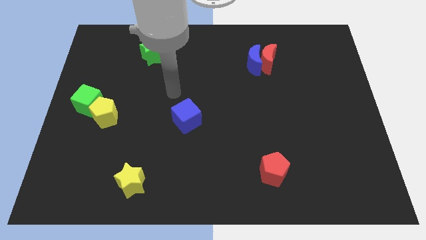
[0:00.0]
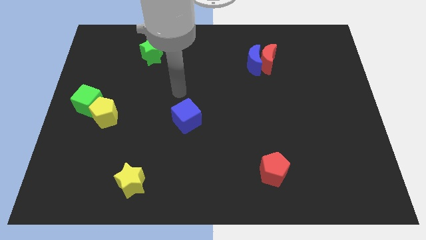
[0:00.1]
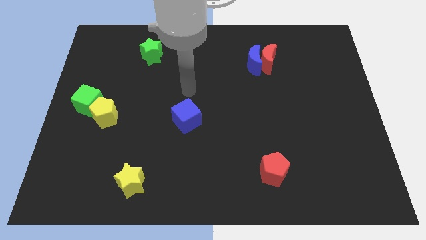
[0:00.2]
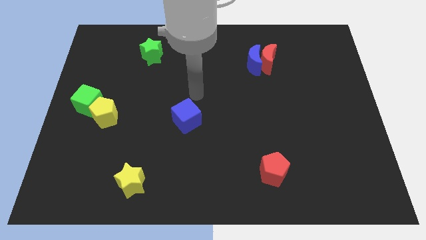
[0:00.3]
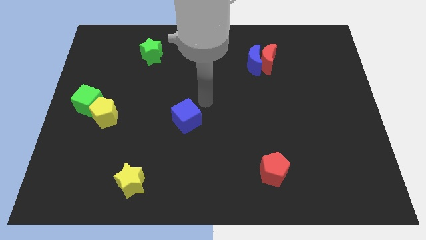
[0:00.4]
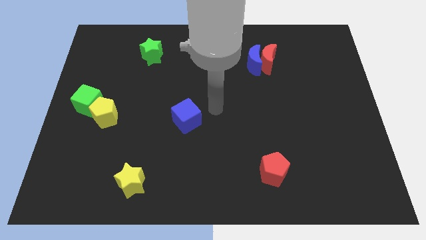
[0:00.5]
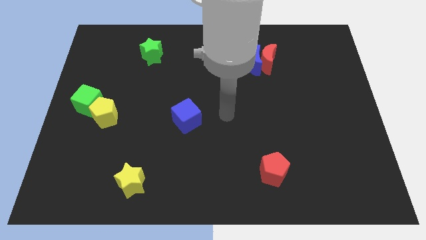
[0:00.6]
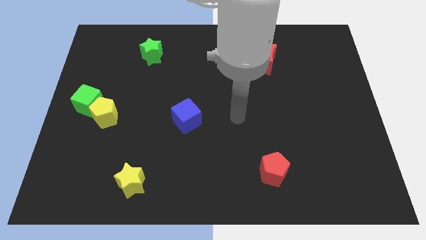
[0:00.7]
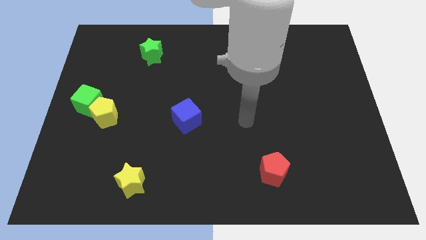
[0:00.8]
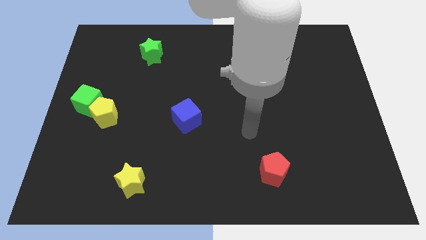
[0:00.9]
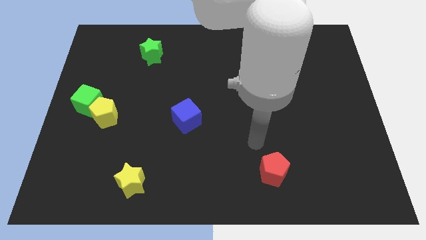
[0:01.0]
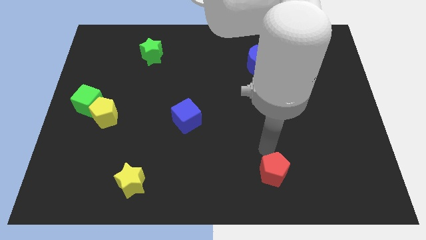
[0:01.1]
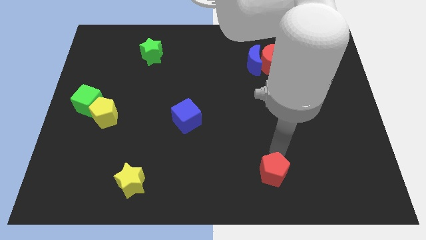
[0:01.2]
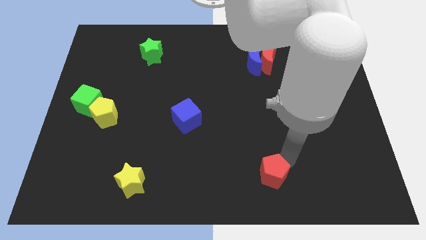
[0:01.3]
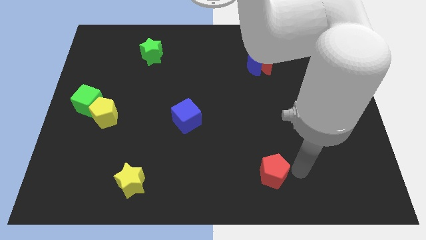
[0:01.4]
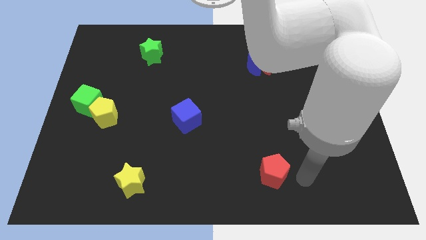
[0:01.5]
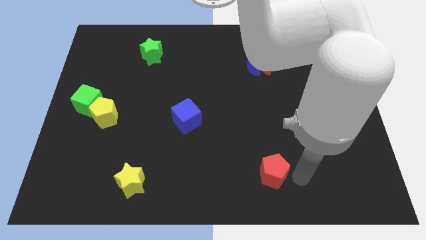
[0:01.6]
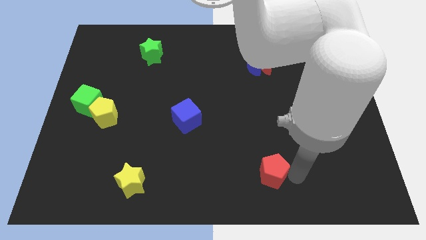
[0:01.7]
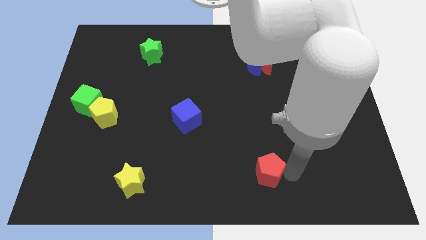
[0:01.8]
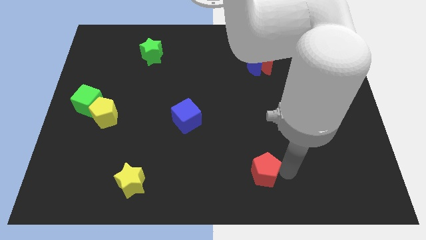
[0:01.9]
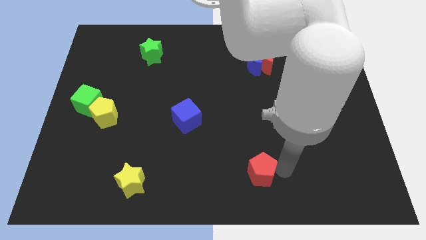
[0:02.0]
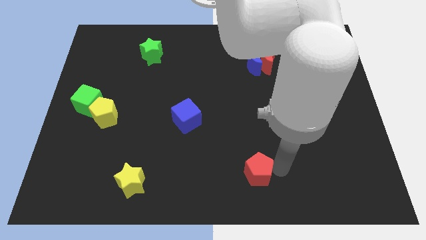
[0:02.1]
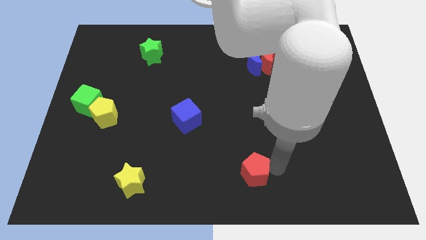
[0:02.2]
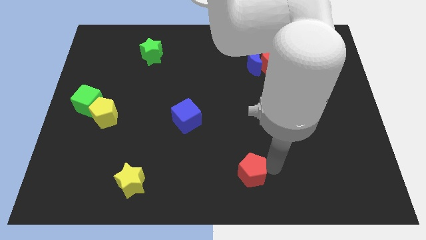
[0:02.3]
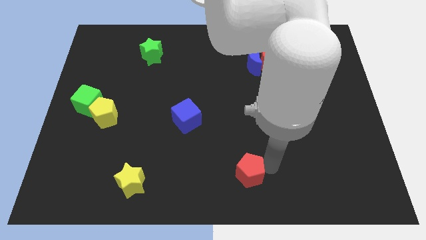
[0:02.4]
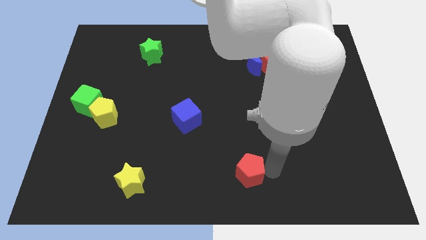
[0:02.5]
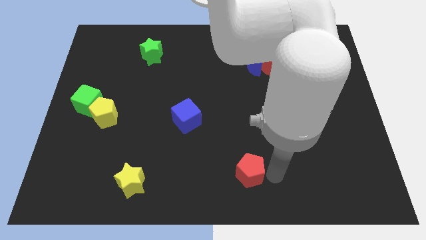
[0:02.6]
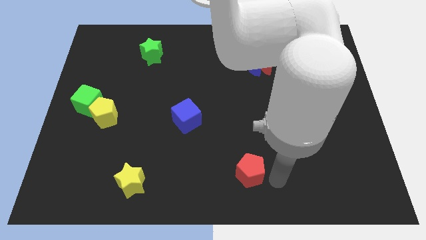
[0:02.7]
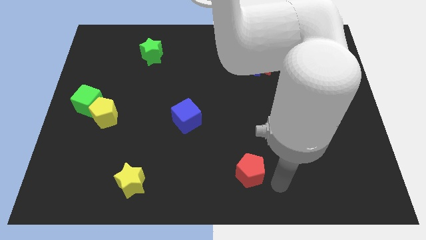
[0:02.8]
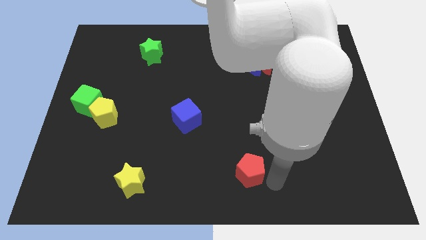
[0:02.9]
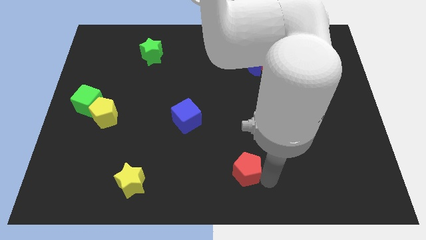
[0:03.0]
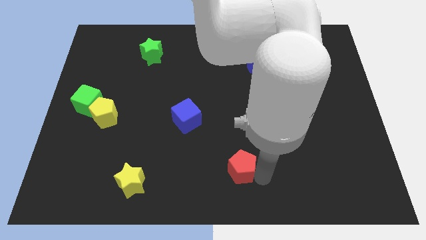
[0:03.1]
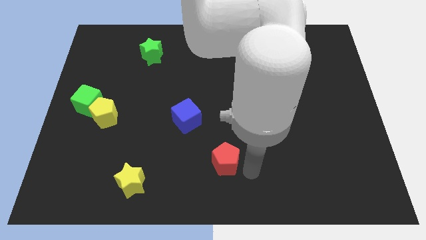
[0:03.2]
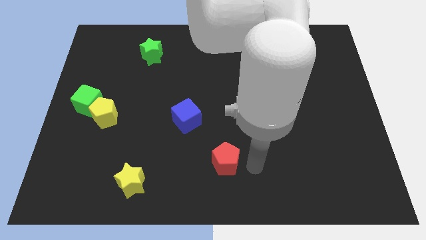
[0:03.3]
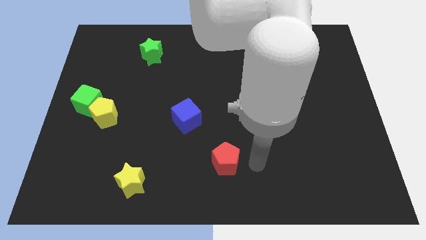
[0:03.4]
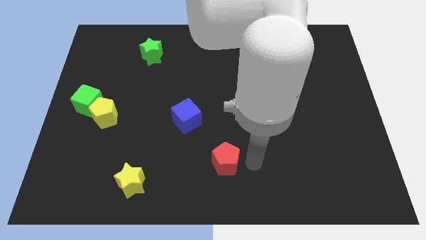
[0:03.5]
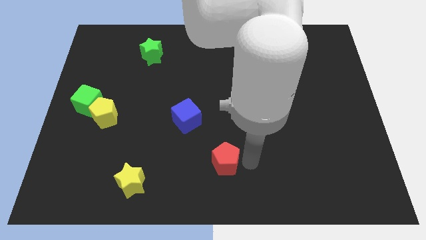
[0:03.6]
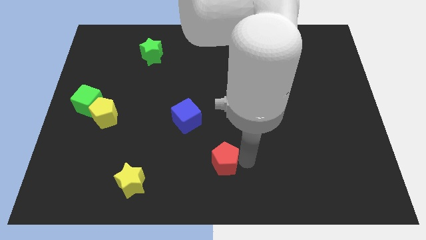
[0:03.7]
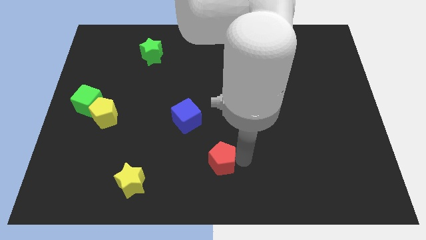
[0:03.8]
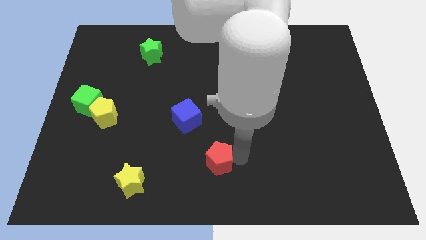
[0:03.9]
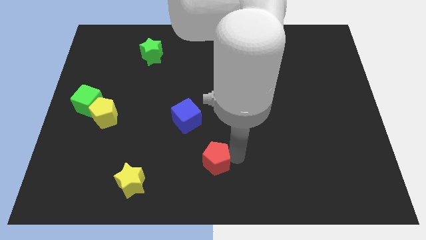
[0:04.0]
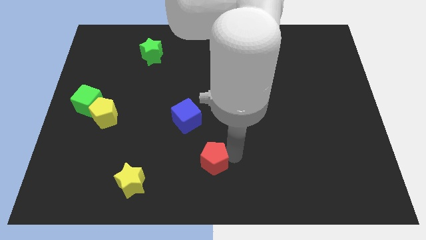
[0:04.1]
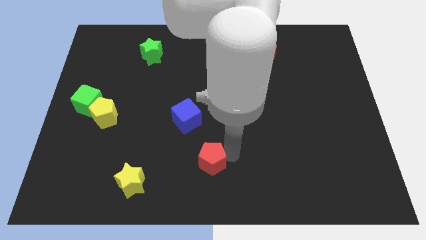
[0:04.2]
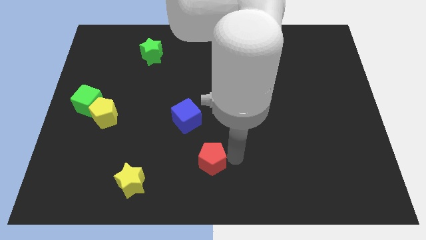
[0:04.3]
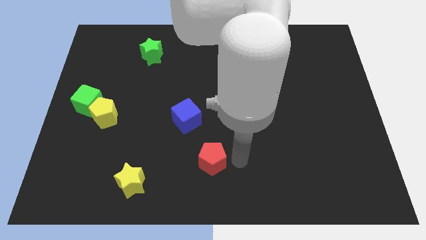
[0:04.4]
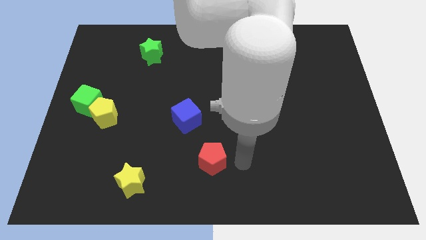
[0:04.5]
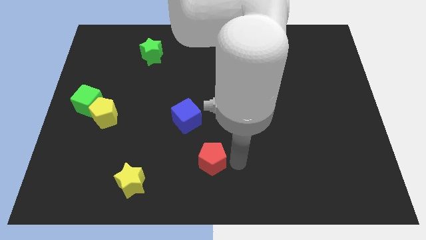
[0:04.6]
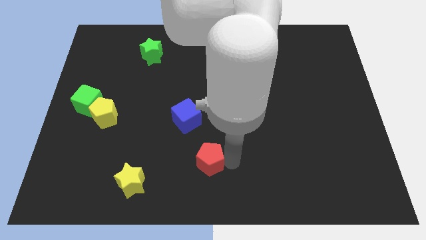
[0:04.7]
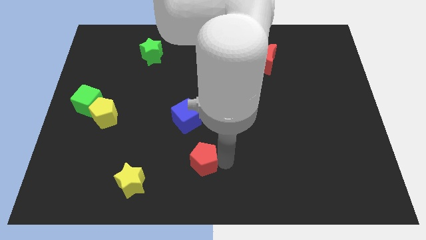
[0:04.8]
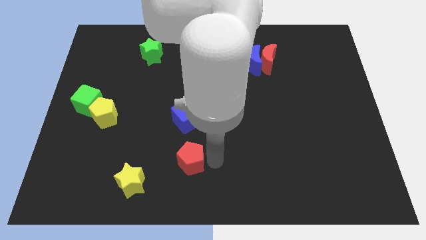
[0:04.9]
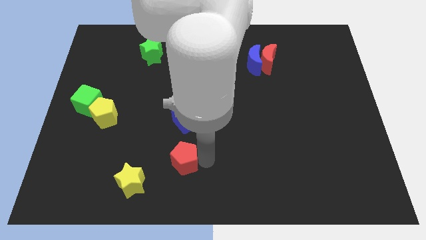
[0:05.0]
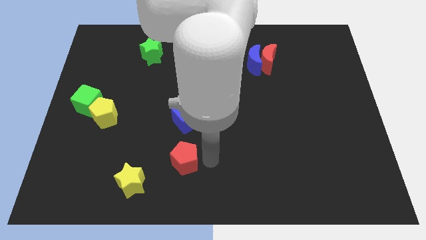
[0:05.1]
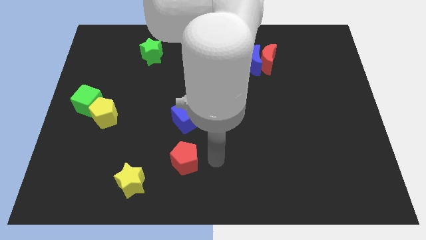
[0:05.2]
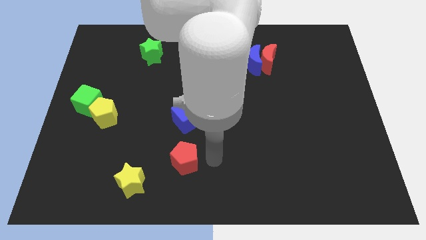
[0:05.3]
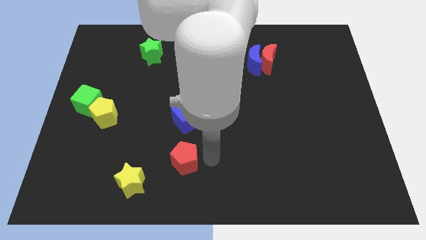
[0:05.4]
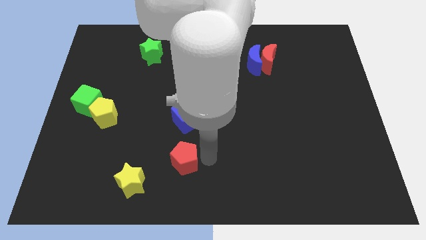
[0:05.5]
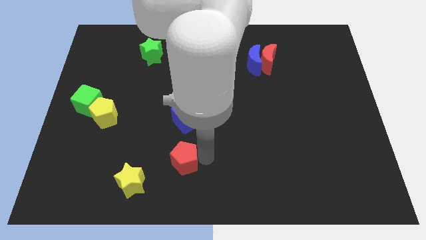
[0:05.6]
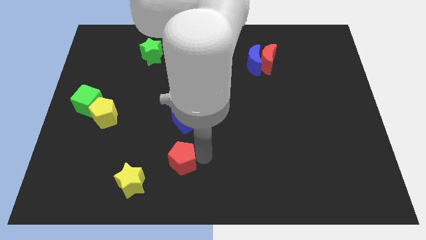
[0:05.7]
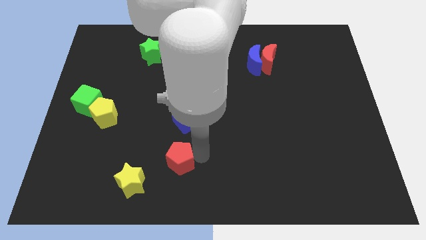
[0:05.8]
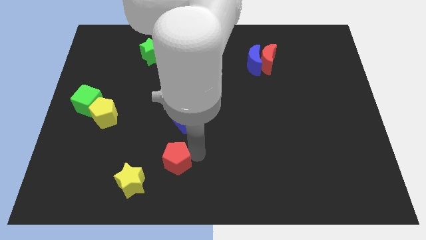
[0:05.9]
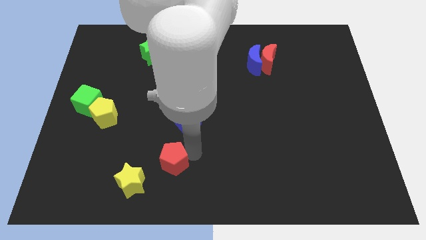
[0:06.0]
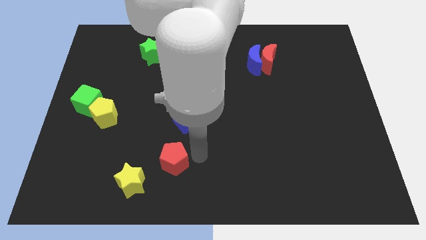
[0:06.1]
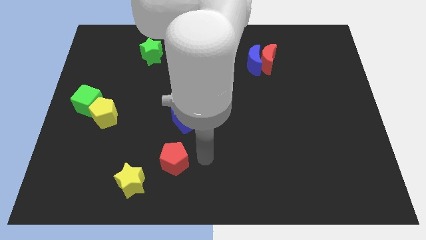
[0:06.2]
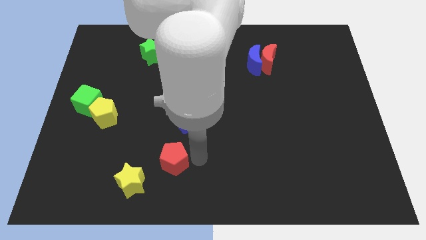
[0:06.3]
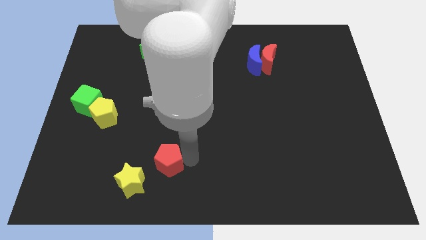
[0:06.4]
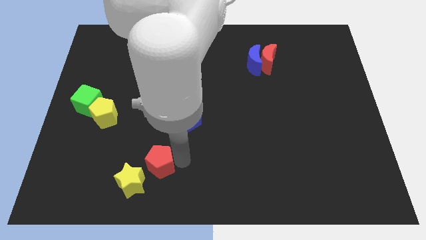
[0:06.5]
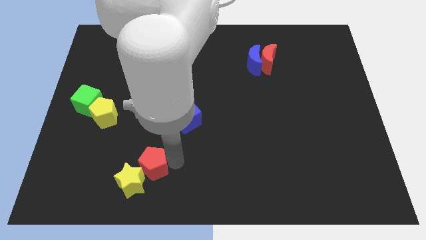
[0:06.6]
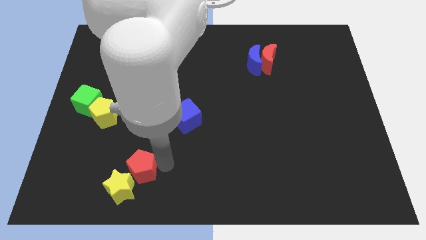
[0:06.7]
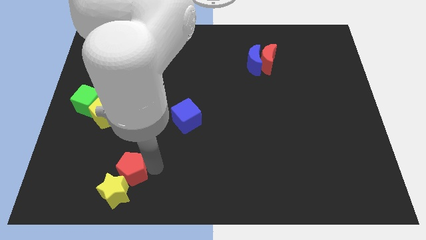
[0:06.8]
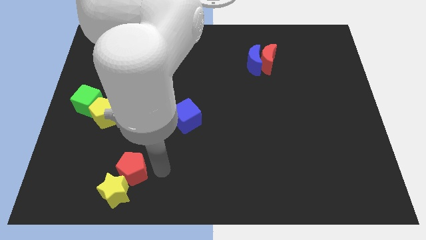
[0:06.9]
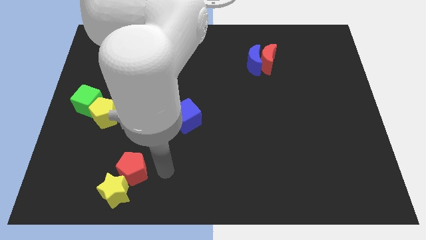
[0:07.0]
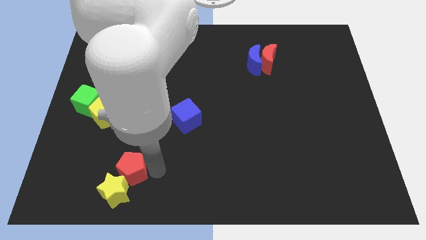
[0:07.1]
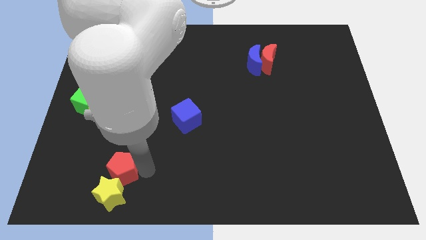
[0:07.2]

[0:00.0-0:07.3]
put the red pentagon to the top left side of the yellow star
